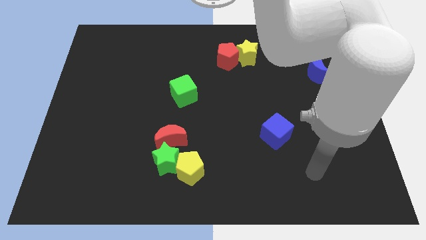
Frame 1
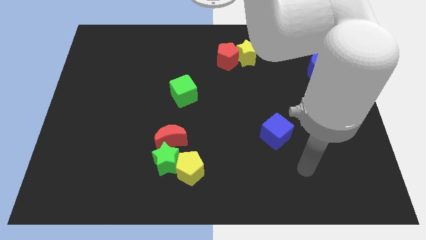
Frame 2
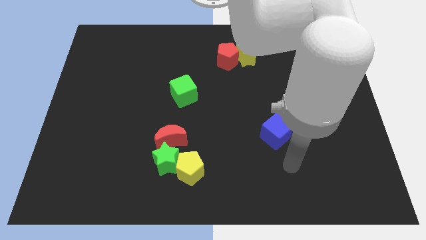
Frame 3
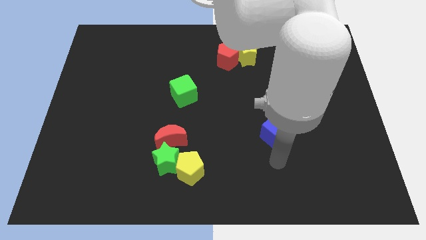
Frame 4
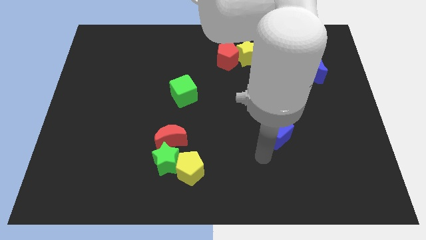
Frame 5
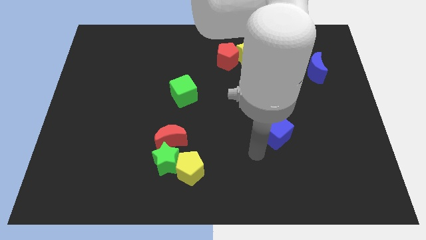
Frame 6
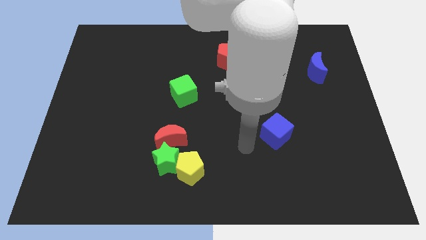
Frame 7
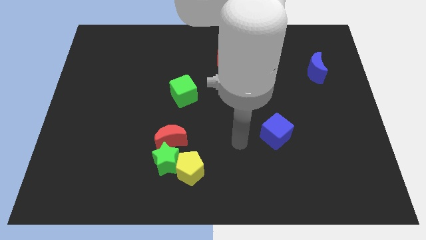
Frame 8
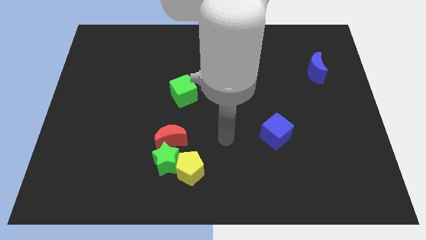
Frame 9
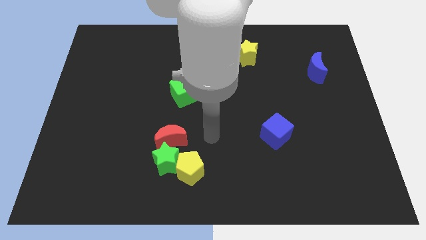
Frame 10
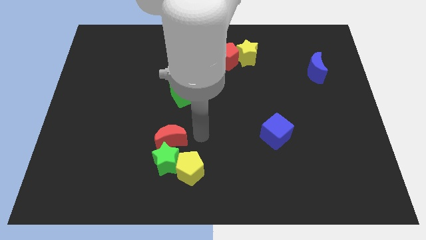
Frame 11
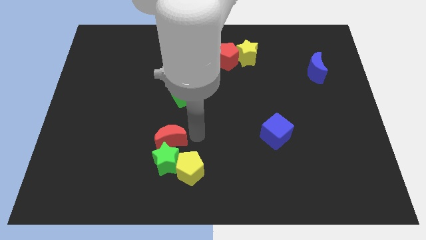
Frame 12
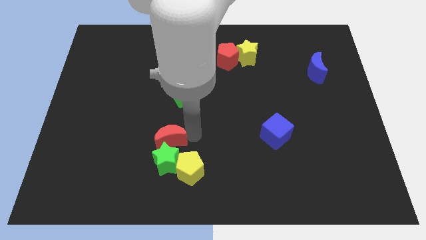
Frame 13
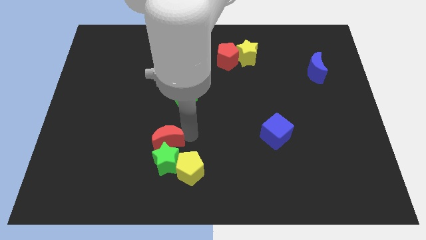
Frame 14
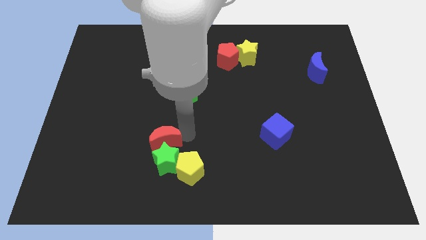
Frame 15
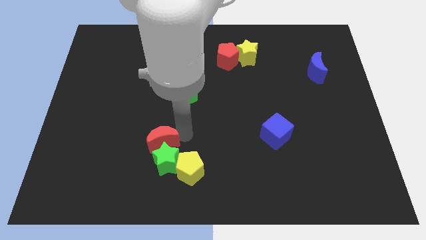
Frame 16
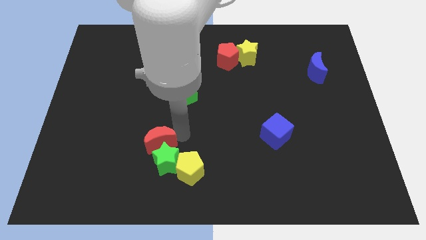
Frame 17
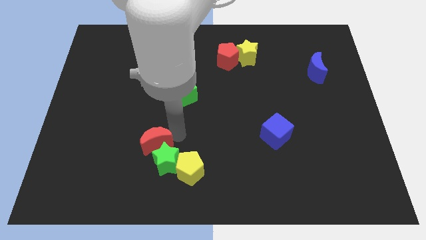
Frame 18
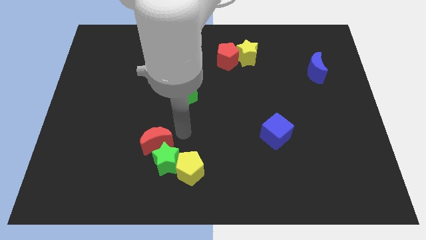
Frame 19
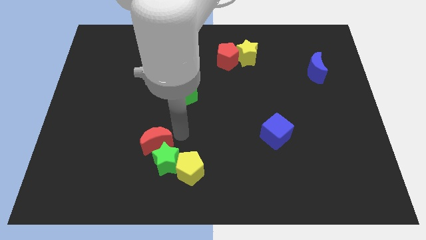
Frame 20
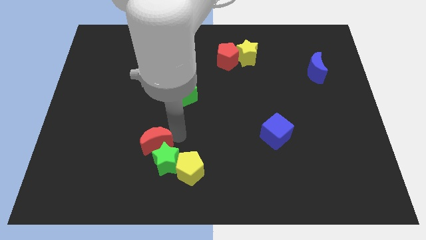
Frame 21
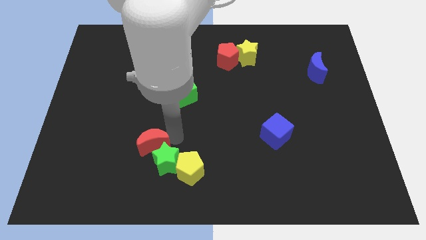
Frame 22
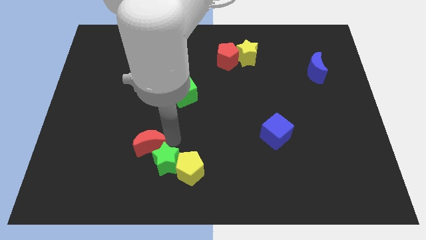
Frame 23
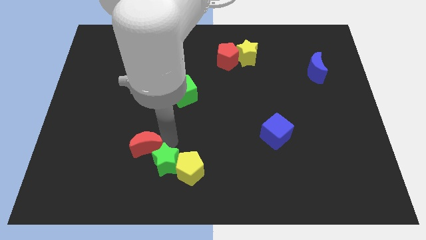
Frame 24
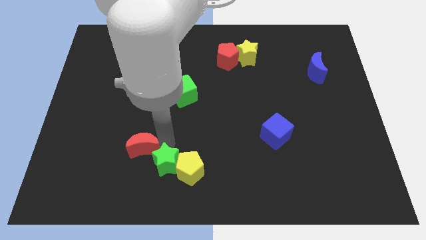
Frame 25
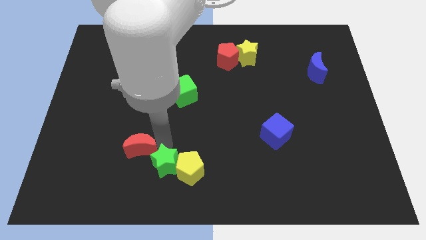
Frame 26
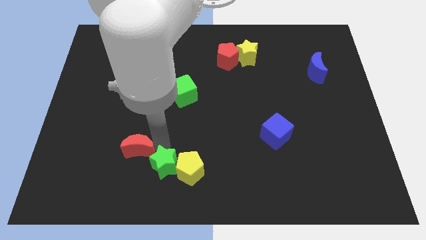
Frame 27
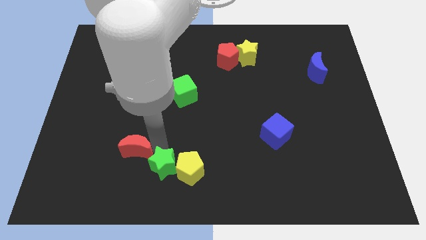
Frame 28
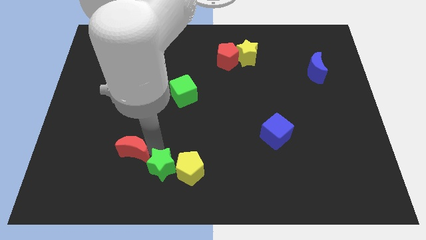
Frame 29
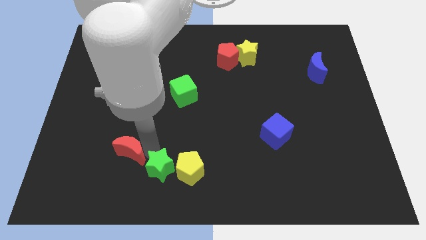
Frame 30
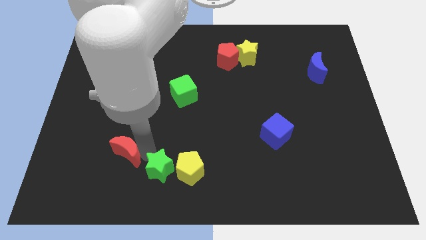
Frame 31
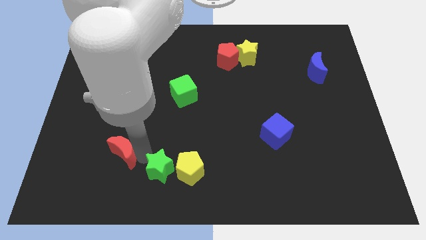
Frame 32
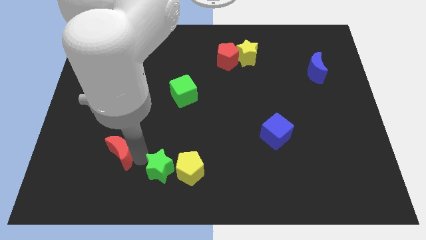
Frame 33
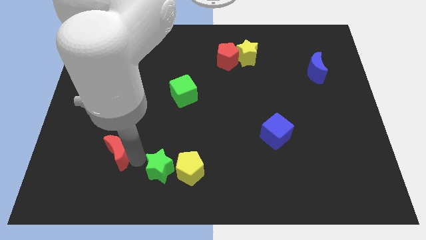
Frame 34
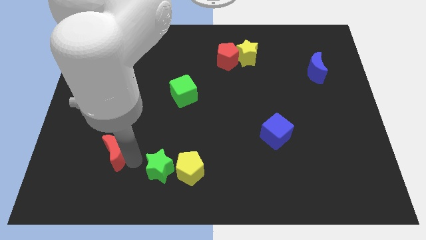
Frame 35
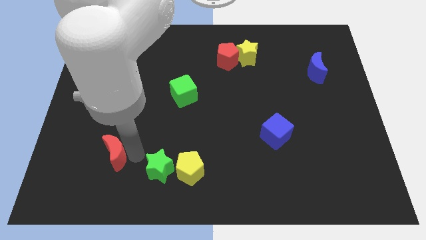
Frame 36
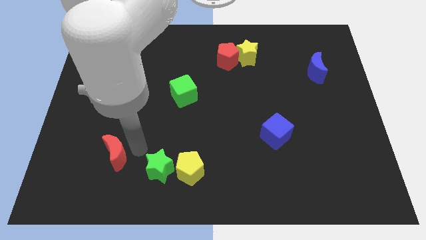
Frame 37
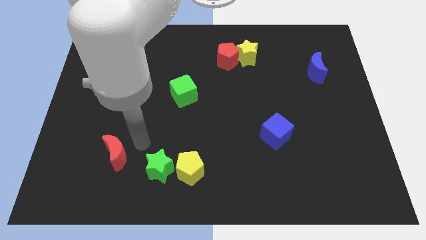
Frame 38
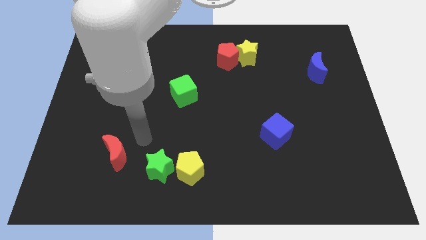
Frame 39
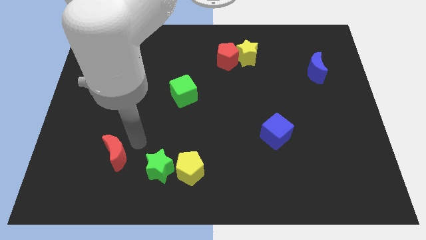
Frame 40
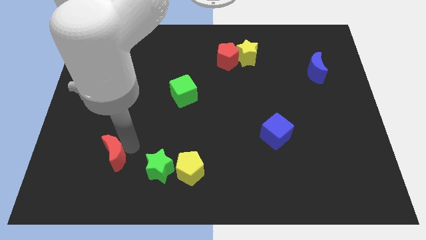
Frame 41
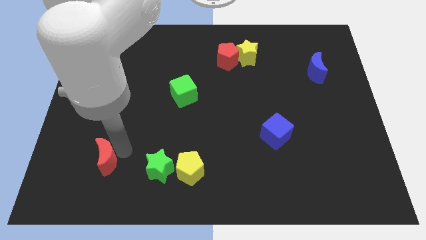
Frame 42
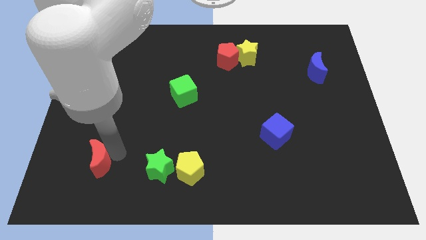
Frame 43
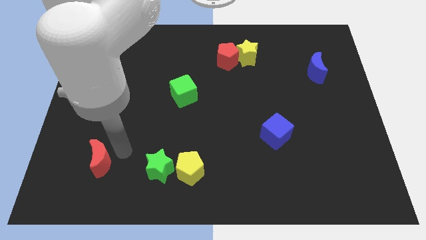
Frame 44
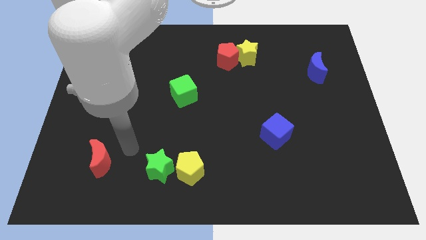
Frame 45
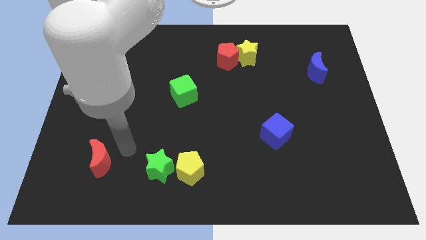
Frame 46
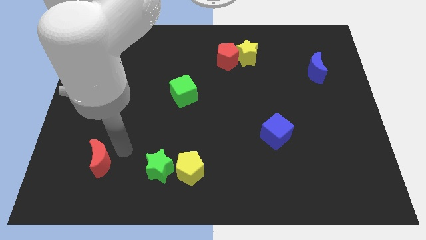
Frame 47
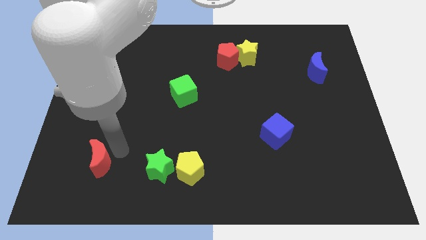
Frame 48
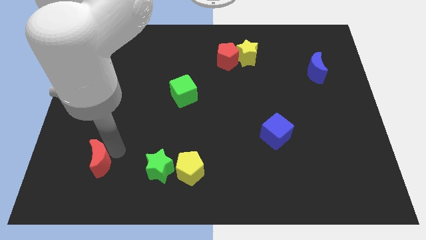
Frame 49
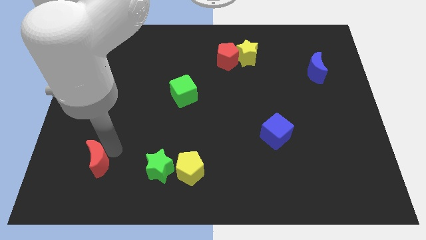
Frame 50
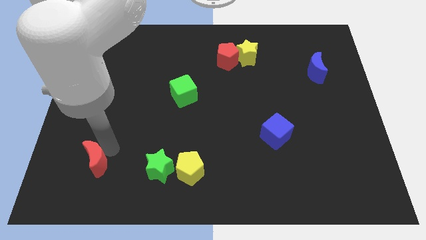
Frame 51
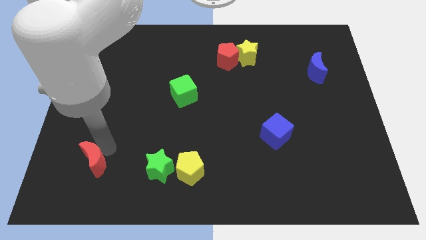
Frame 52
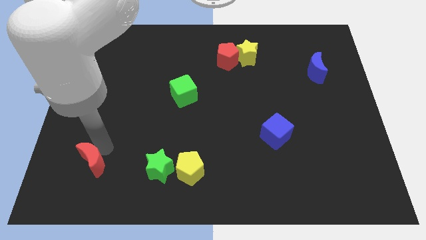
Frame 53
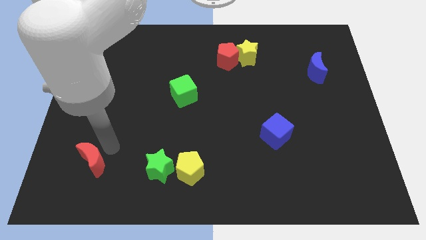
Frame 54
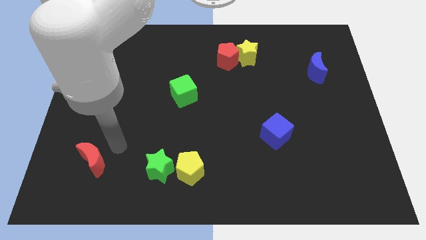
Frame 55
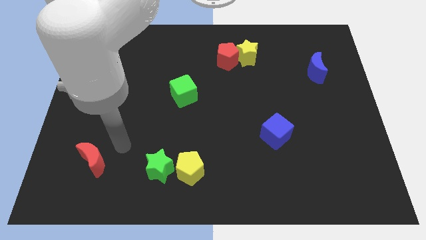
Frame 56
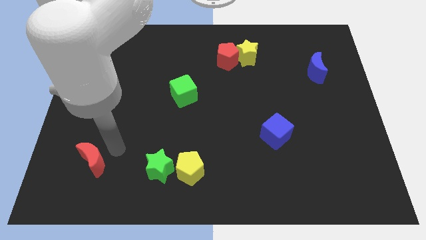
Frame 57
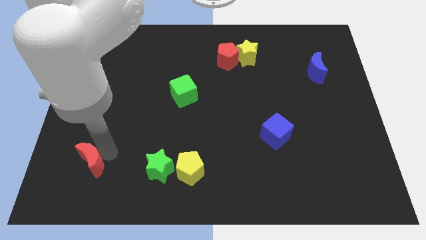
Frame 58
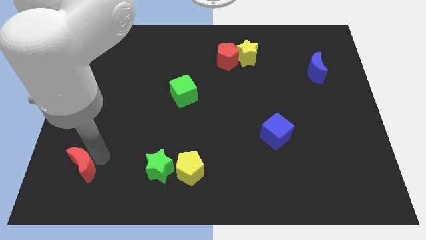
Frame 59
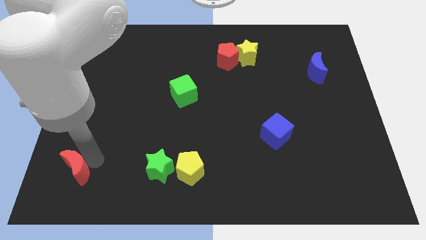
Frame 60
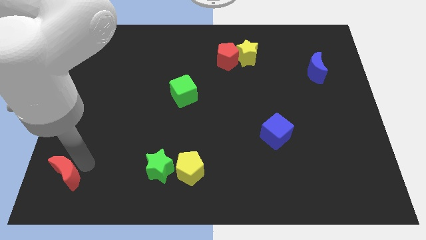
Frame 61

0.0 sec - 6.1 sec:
put the red moon to the lower left corner

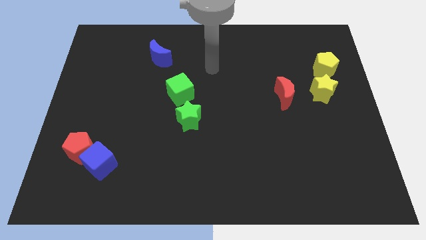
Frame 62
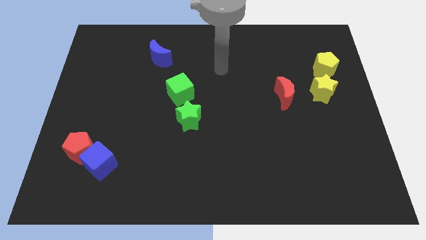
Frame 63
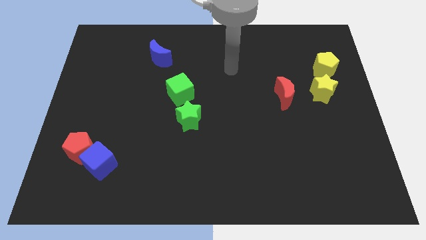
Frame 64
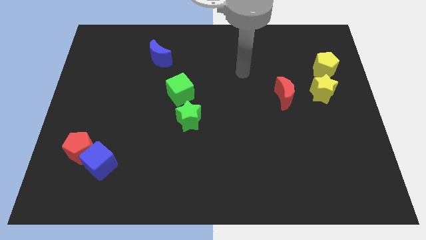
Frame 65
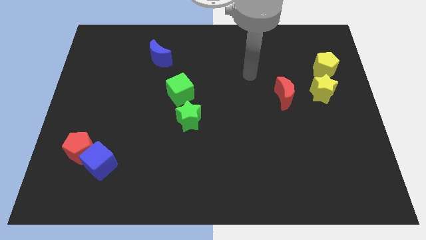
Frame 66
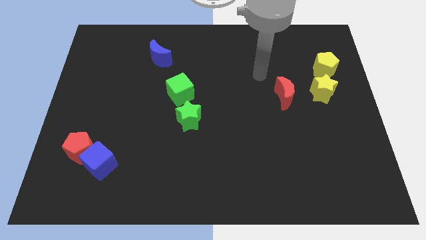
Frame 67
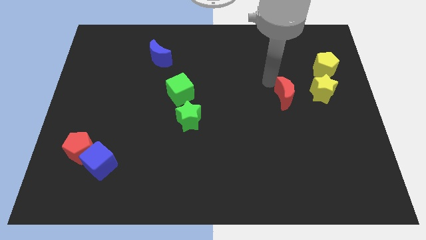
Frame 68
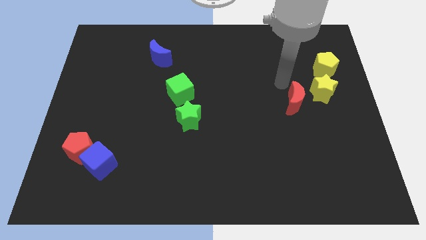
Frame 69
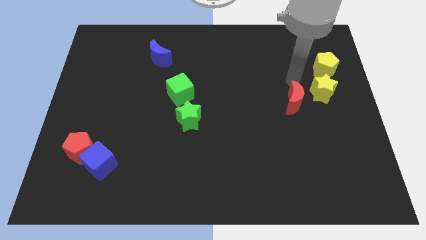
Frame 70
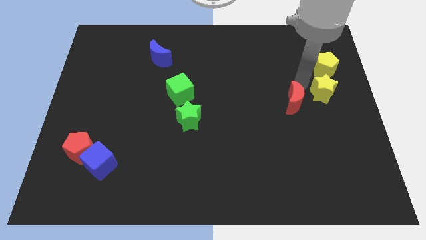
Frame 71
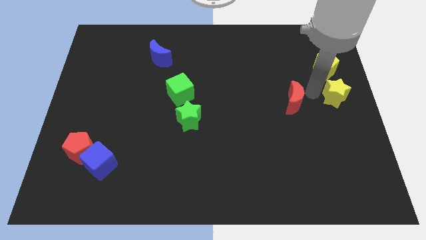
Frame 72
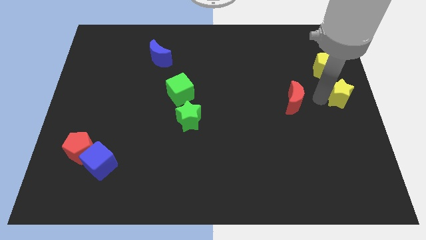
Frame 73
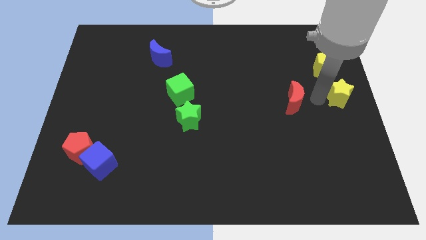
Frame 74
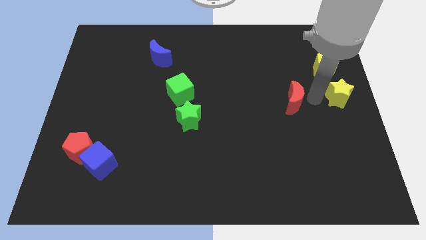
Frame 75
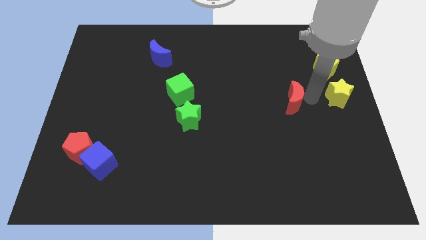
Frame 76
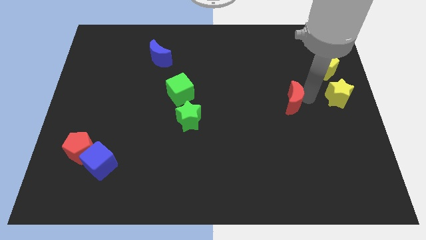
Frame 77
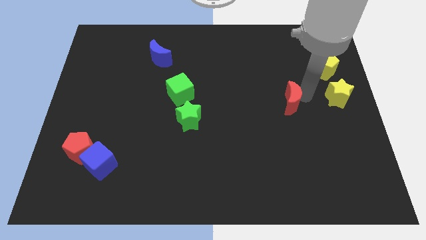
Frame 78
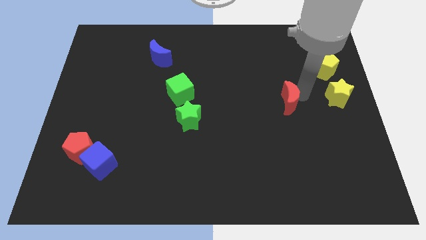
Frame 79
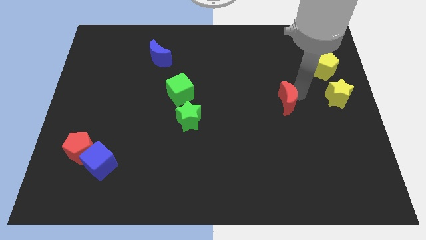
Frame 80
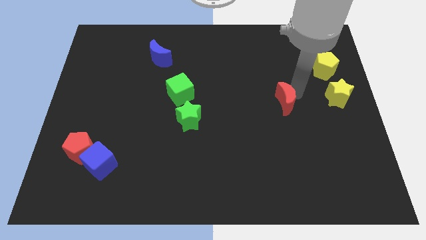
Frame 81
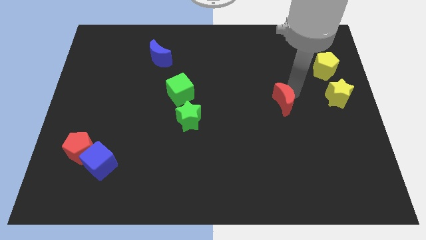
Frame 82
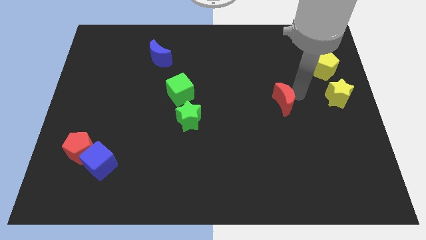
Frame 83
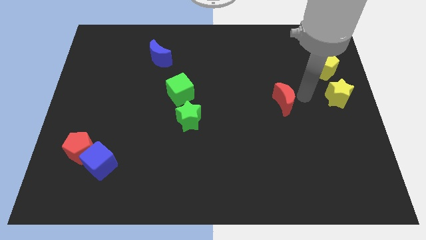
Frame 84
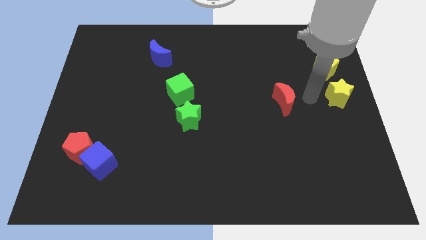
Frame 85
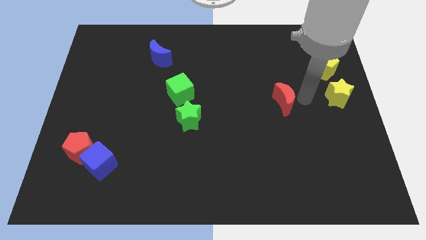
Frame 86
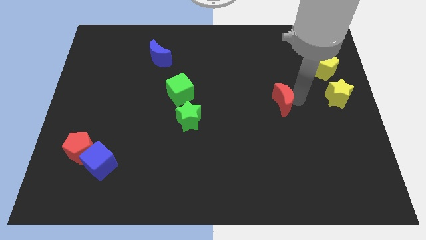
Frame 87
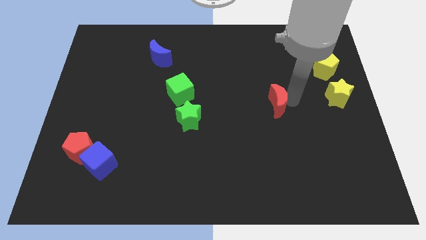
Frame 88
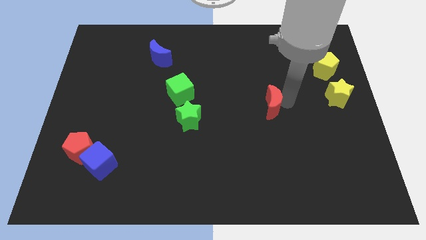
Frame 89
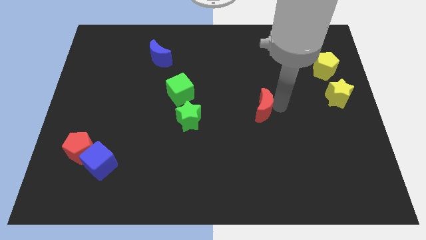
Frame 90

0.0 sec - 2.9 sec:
slide the red moon to the center of the board
